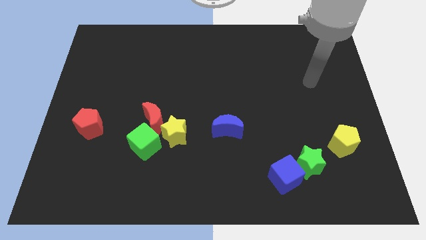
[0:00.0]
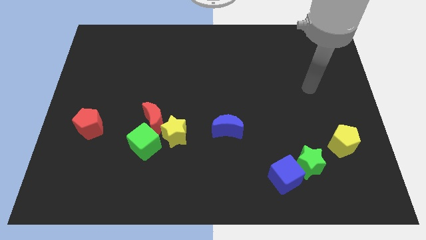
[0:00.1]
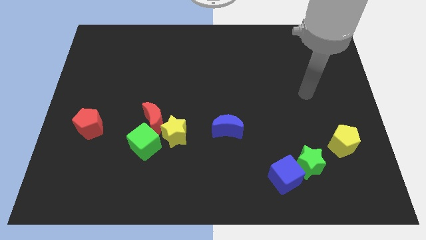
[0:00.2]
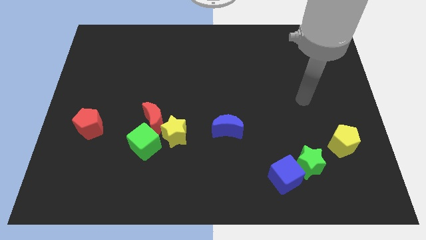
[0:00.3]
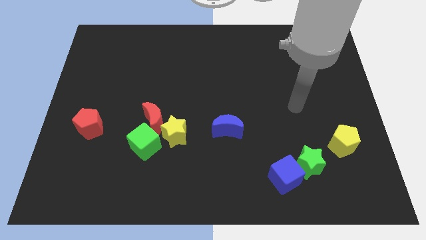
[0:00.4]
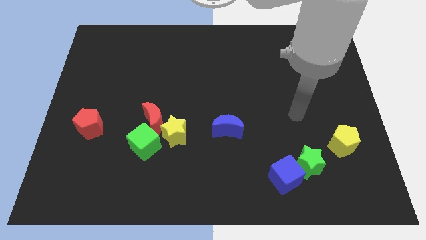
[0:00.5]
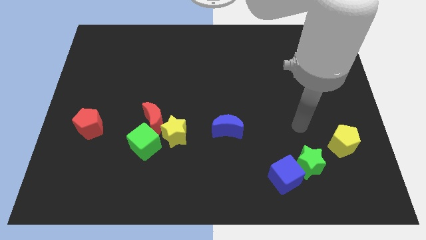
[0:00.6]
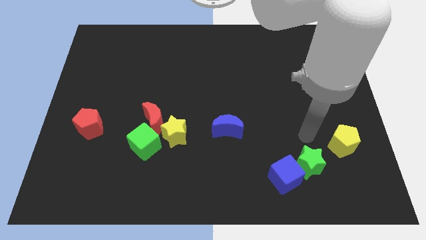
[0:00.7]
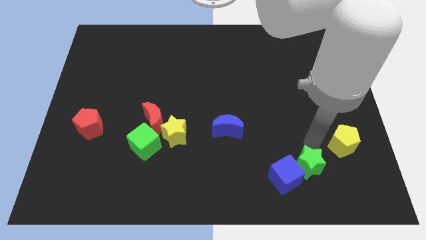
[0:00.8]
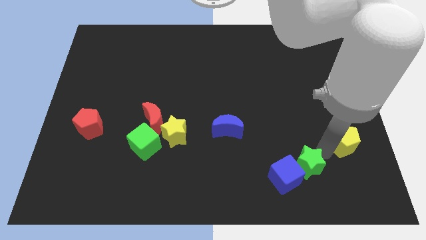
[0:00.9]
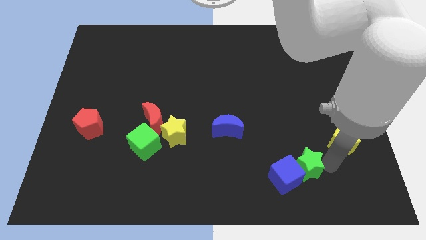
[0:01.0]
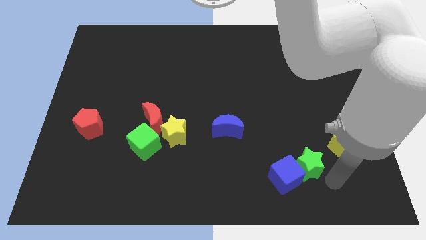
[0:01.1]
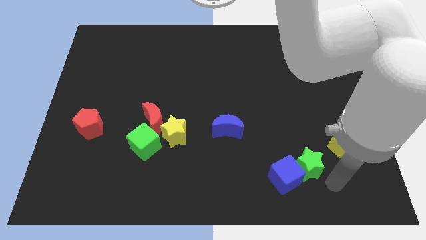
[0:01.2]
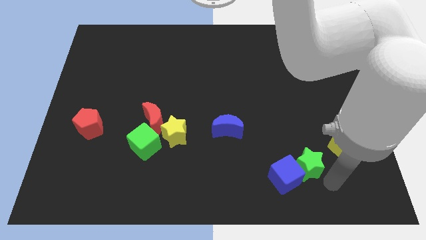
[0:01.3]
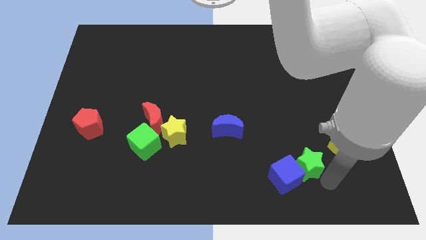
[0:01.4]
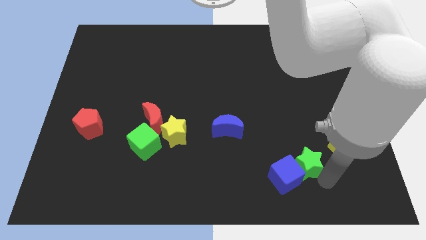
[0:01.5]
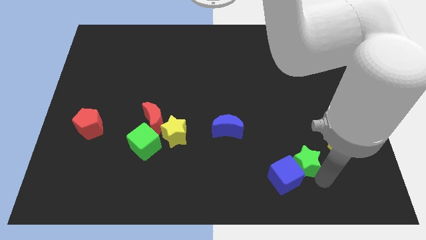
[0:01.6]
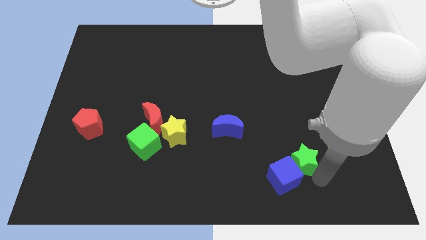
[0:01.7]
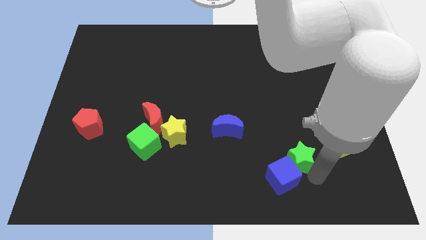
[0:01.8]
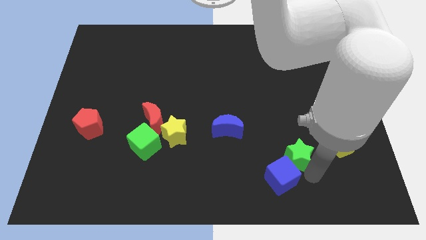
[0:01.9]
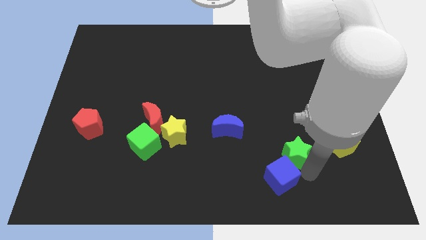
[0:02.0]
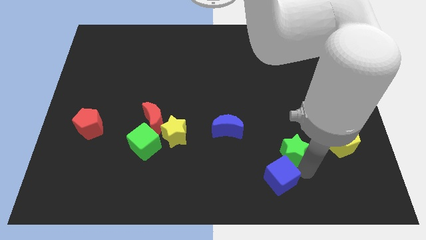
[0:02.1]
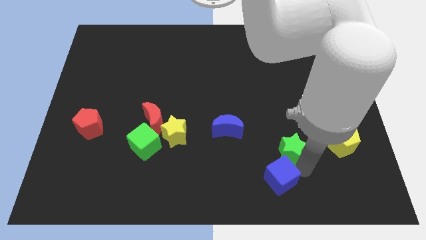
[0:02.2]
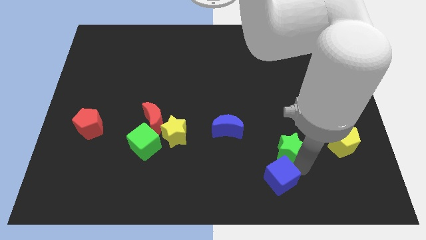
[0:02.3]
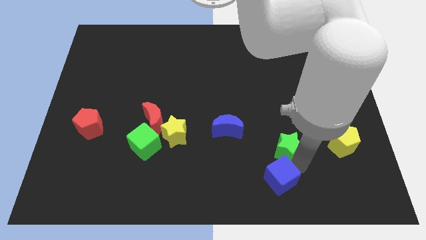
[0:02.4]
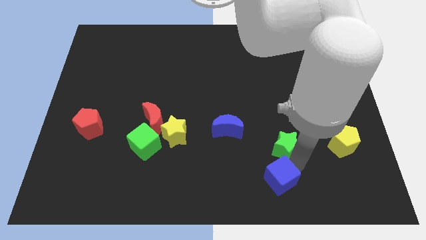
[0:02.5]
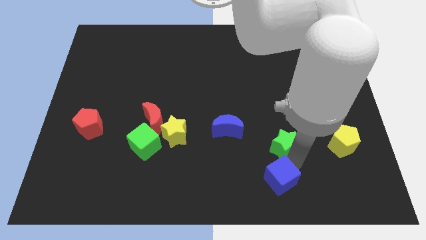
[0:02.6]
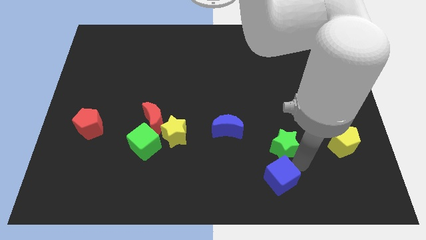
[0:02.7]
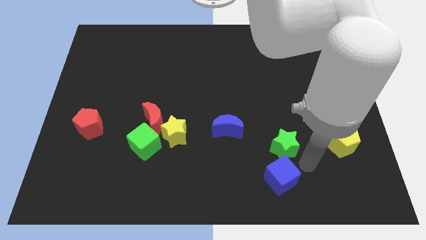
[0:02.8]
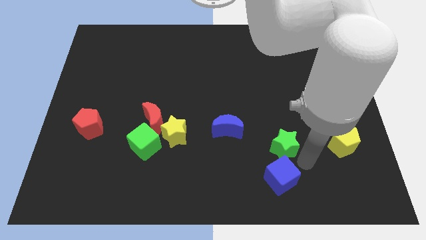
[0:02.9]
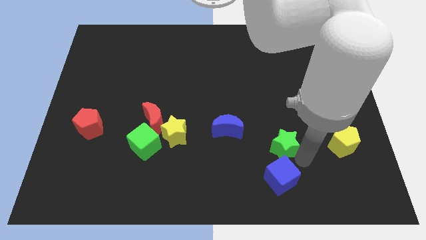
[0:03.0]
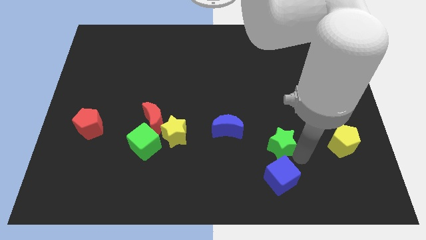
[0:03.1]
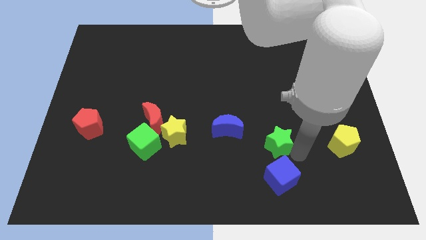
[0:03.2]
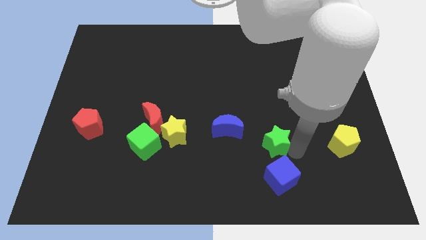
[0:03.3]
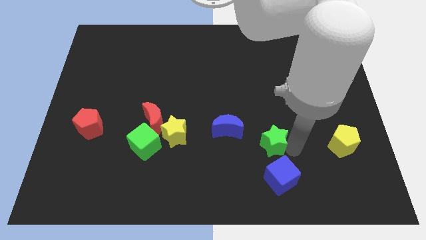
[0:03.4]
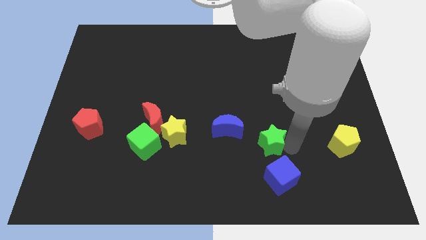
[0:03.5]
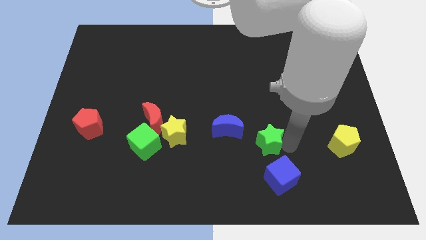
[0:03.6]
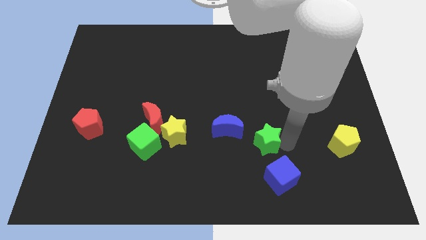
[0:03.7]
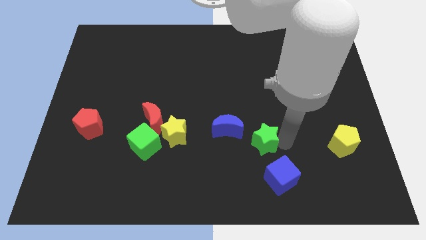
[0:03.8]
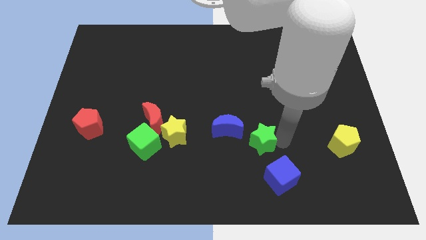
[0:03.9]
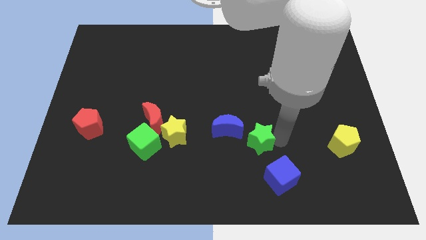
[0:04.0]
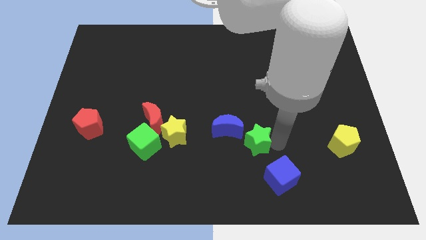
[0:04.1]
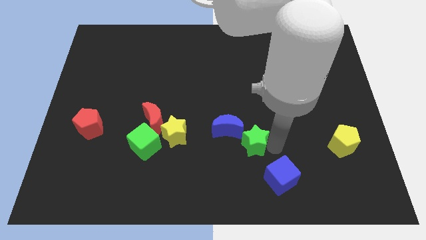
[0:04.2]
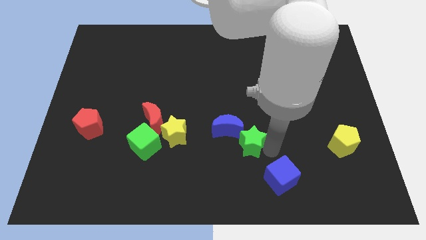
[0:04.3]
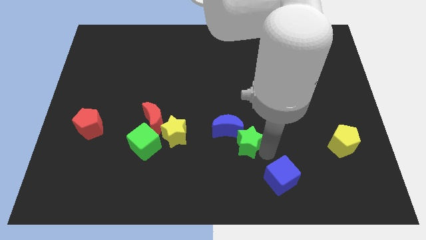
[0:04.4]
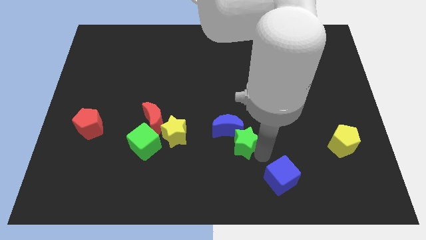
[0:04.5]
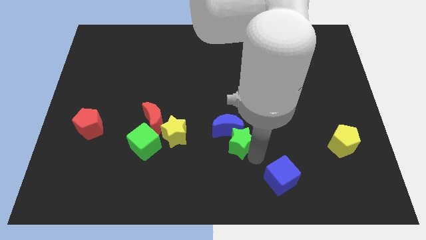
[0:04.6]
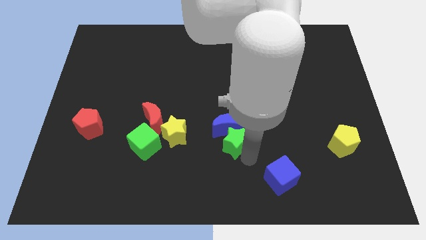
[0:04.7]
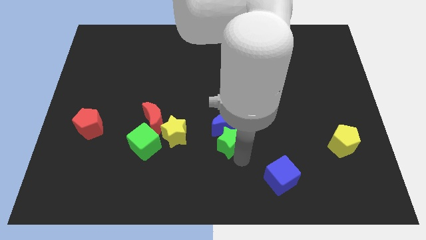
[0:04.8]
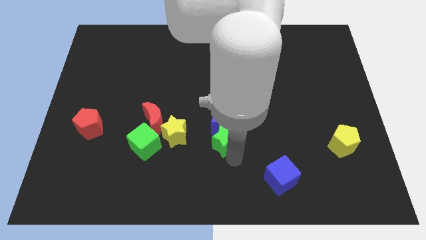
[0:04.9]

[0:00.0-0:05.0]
slide the green star to the middle of the board

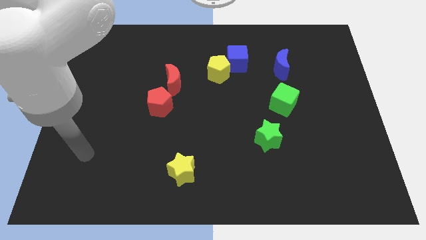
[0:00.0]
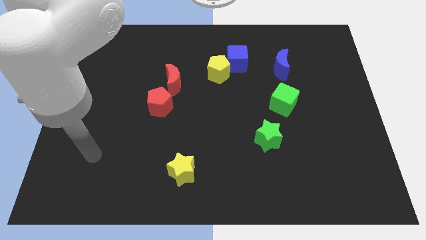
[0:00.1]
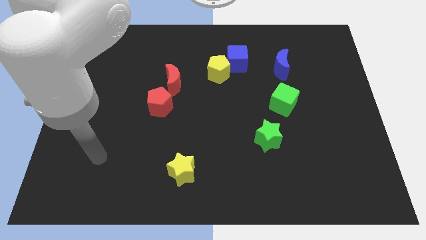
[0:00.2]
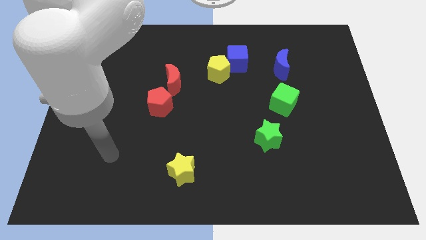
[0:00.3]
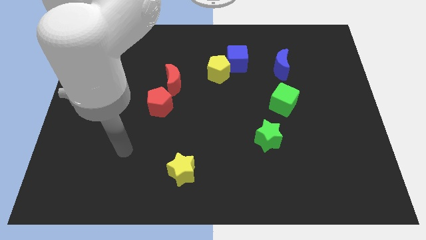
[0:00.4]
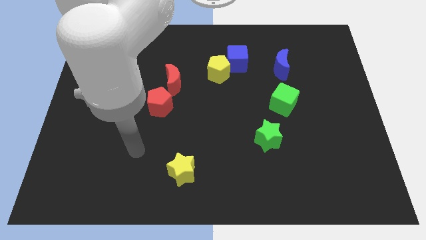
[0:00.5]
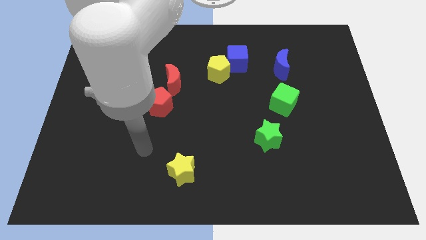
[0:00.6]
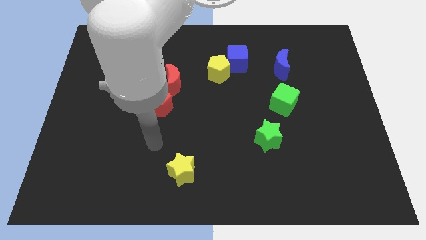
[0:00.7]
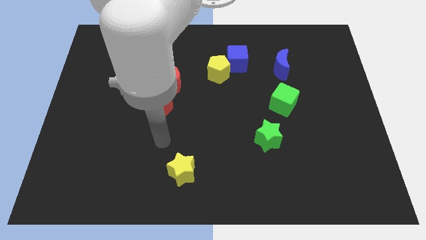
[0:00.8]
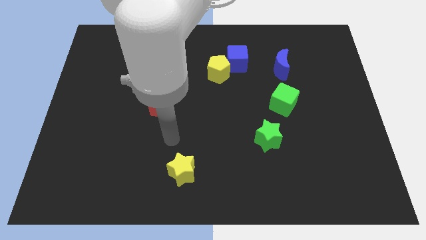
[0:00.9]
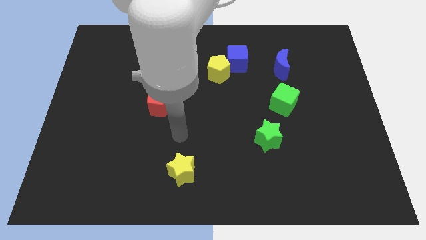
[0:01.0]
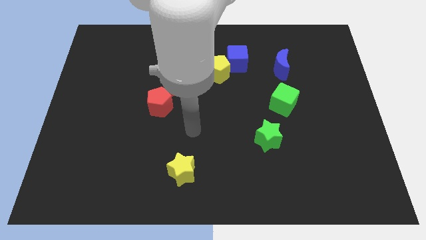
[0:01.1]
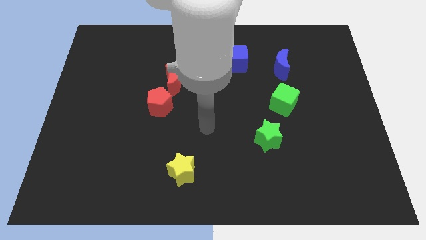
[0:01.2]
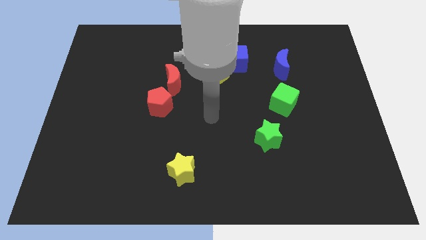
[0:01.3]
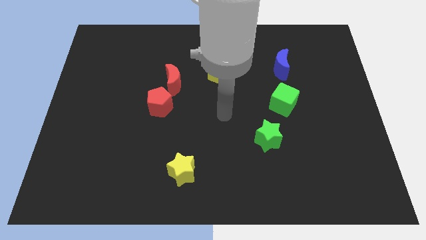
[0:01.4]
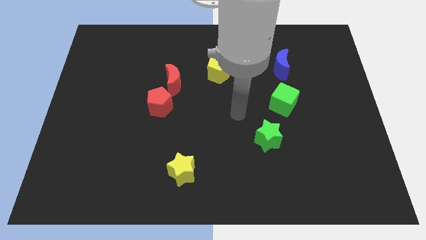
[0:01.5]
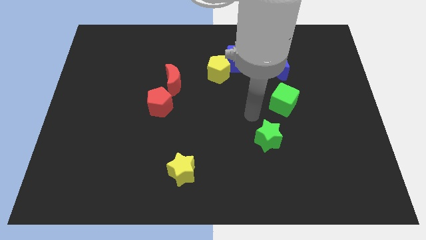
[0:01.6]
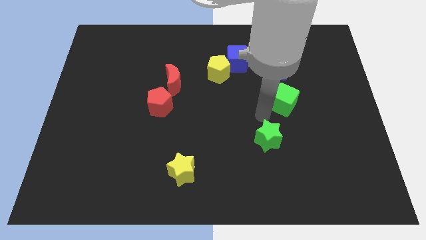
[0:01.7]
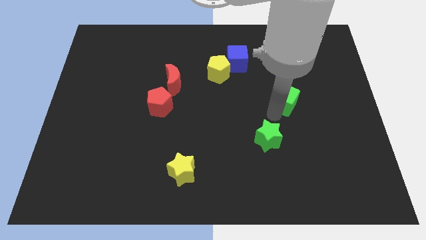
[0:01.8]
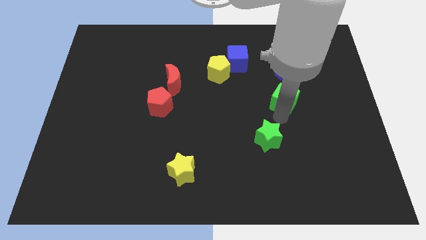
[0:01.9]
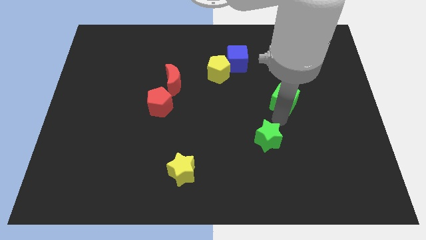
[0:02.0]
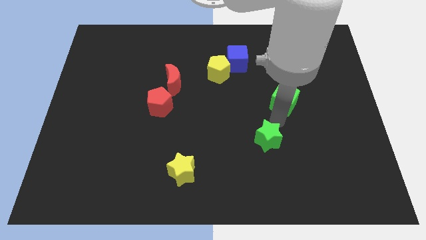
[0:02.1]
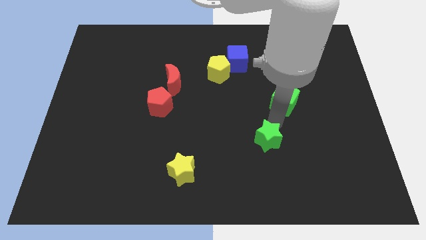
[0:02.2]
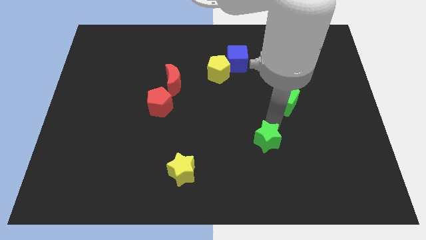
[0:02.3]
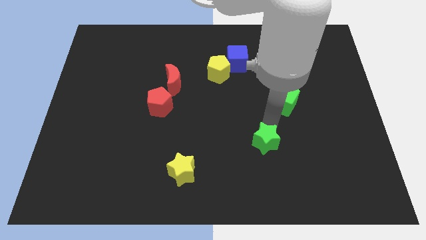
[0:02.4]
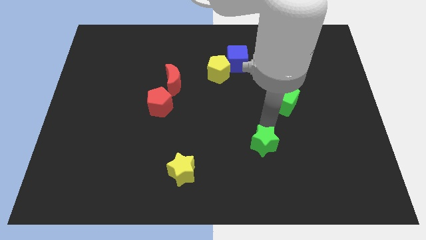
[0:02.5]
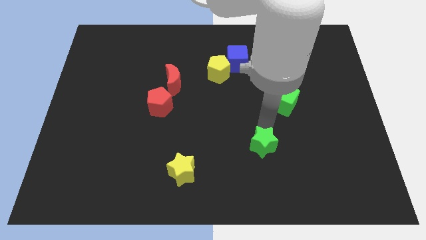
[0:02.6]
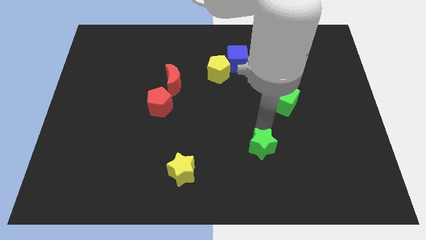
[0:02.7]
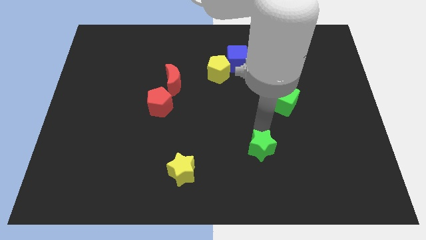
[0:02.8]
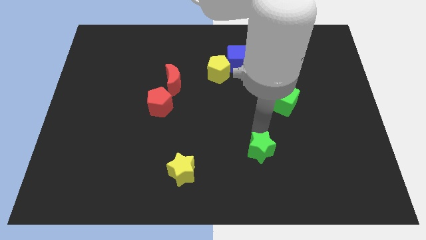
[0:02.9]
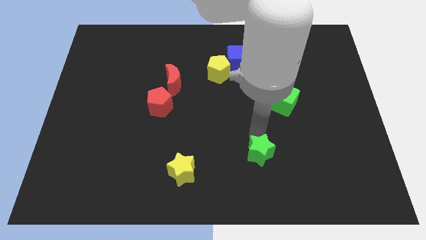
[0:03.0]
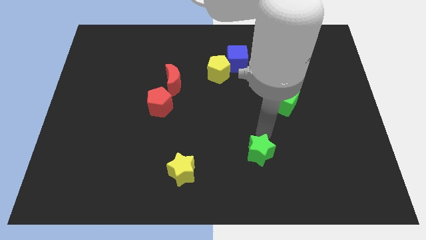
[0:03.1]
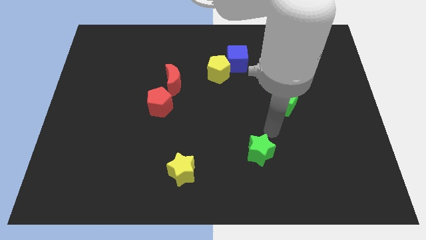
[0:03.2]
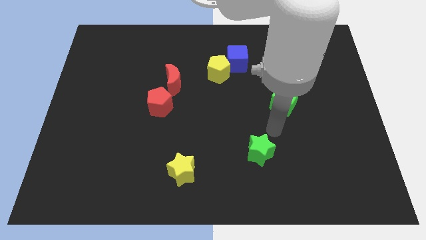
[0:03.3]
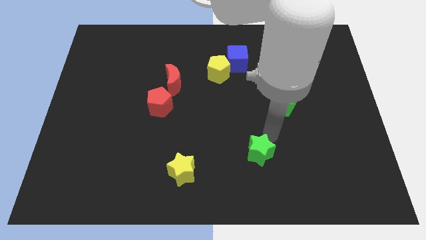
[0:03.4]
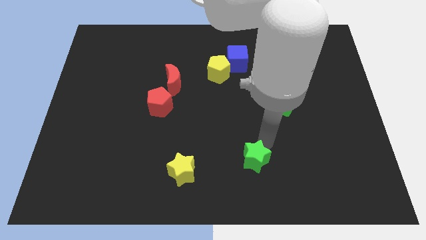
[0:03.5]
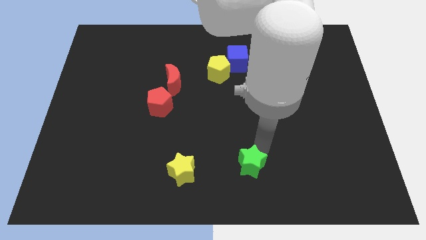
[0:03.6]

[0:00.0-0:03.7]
push the green star to the bottom
